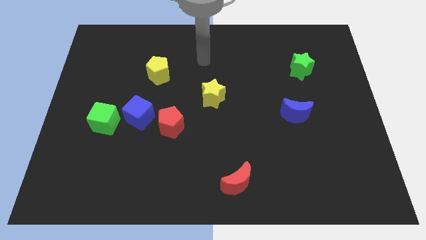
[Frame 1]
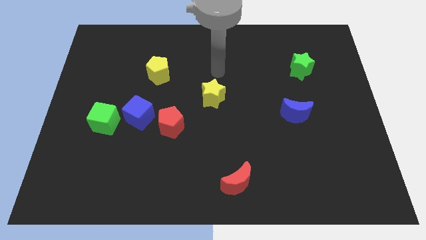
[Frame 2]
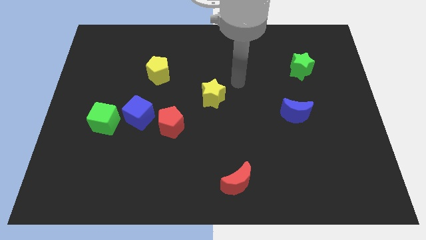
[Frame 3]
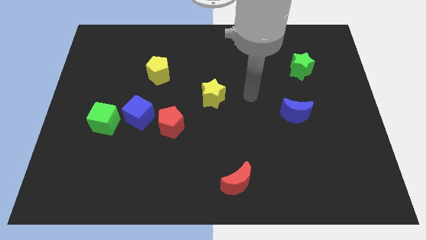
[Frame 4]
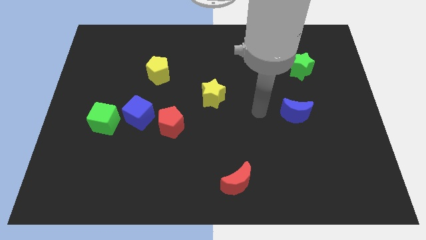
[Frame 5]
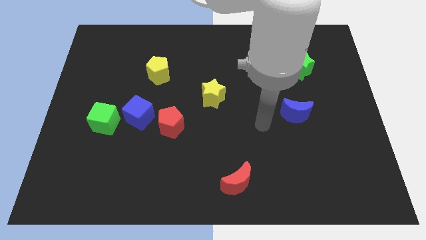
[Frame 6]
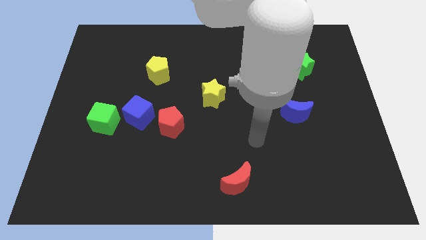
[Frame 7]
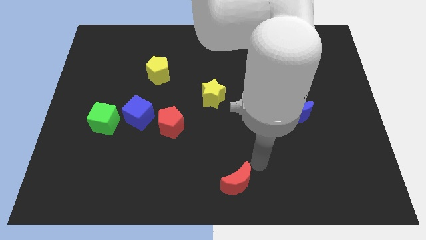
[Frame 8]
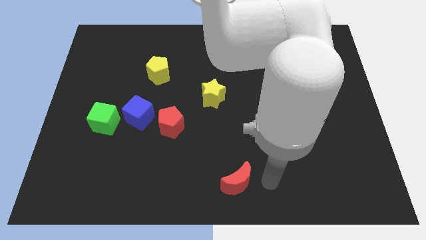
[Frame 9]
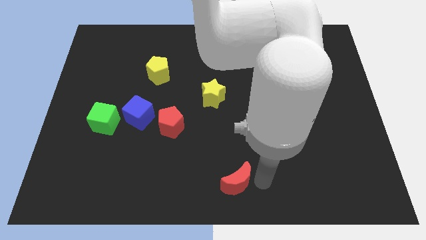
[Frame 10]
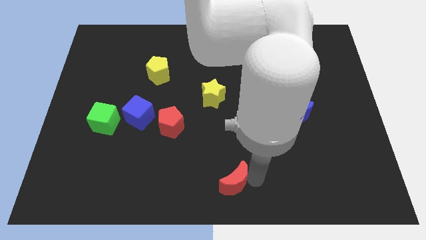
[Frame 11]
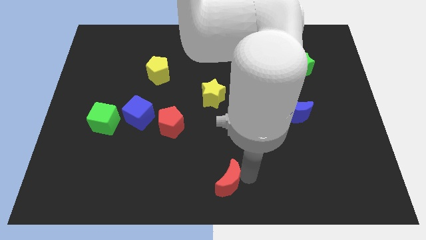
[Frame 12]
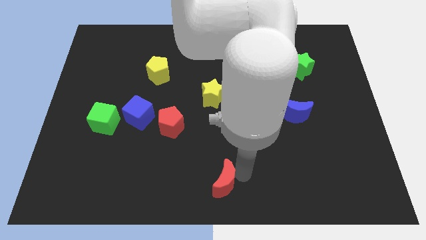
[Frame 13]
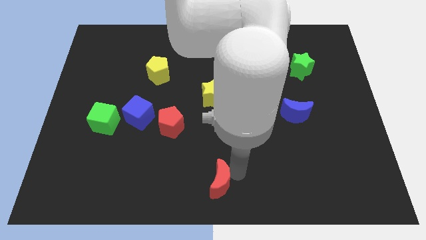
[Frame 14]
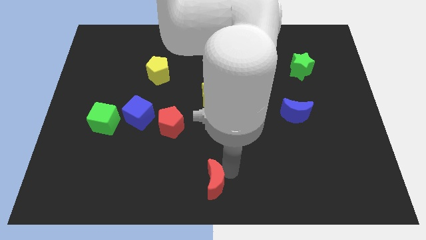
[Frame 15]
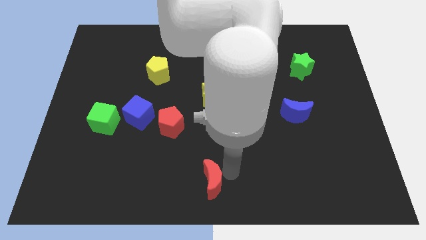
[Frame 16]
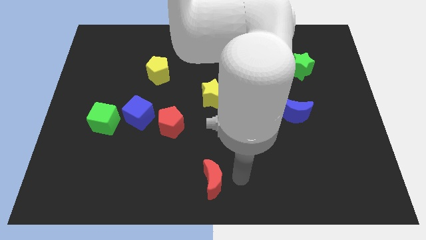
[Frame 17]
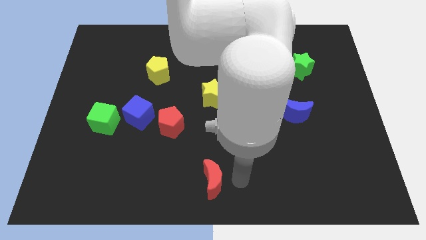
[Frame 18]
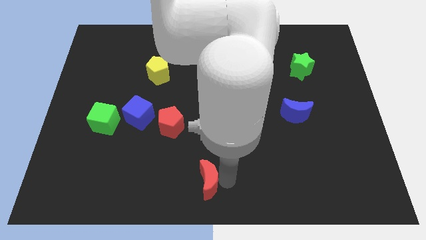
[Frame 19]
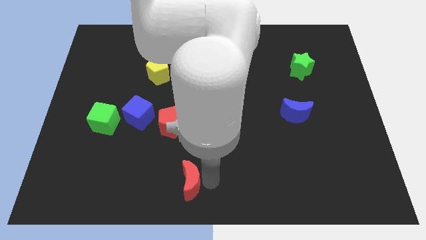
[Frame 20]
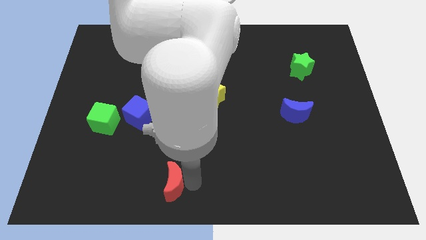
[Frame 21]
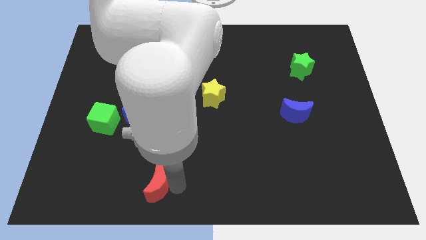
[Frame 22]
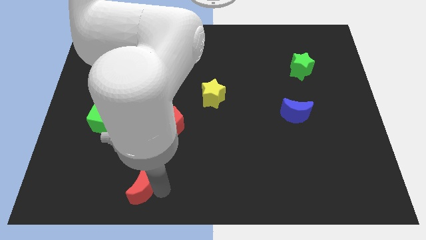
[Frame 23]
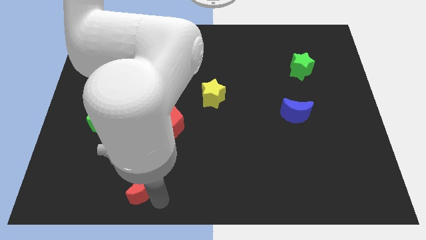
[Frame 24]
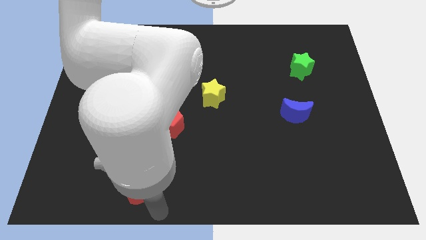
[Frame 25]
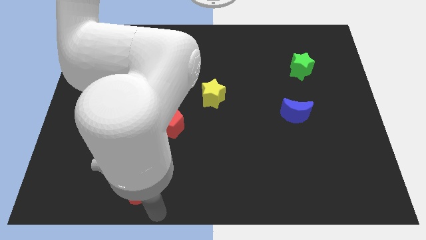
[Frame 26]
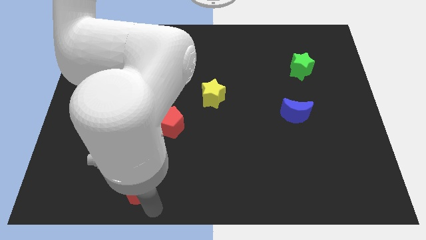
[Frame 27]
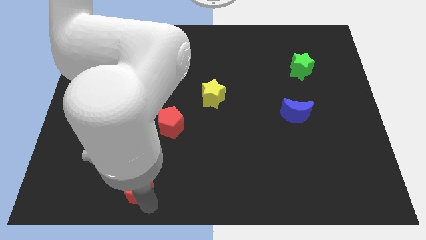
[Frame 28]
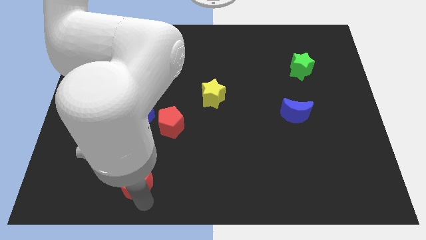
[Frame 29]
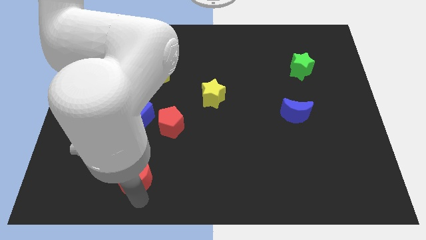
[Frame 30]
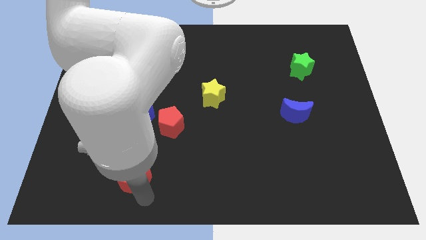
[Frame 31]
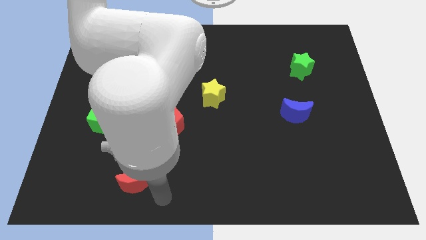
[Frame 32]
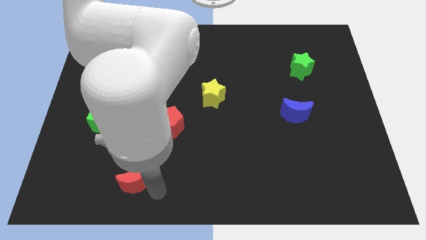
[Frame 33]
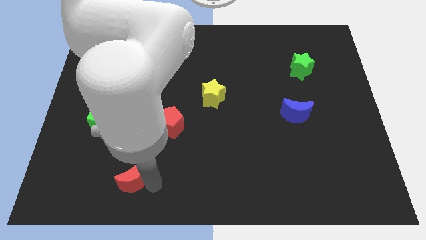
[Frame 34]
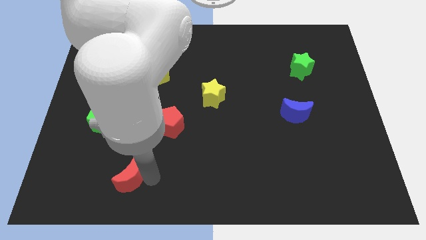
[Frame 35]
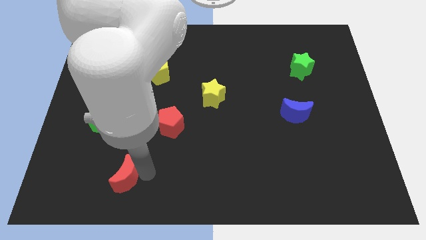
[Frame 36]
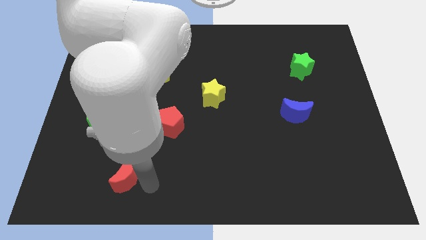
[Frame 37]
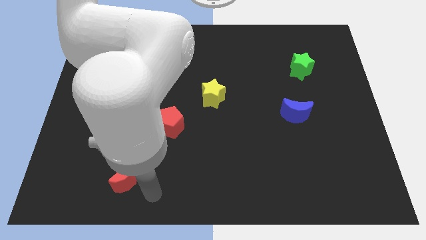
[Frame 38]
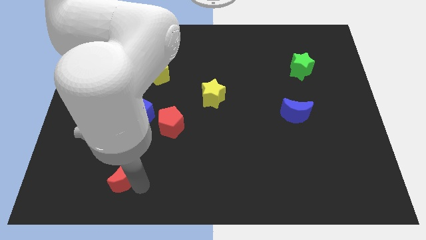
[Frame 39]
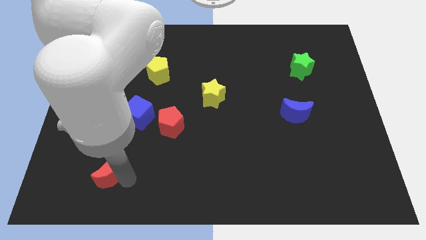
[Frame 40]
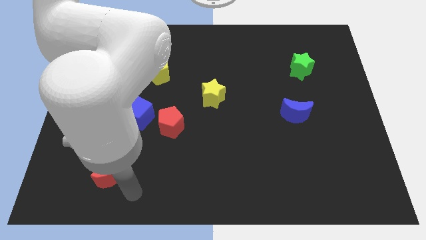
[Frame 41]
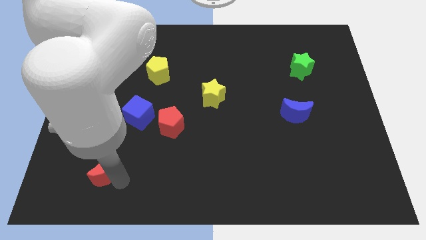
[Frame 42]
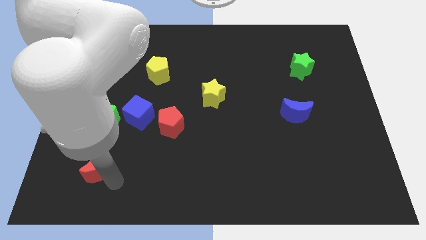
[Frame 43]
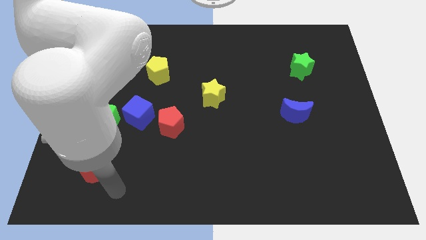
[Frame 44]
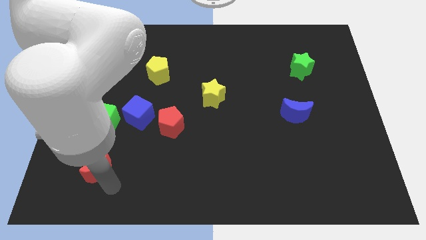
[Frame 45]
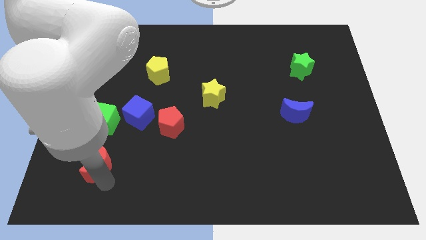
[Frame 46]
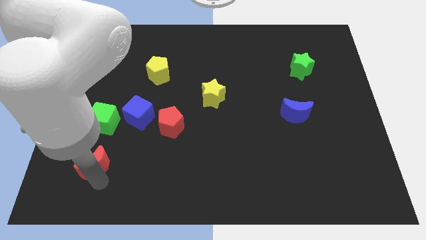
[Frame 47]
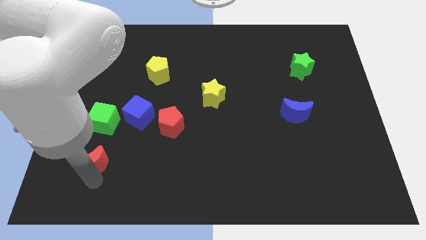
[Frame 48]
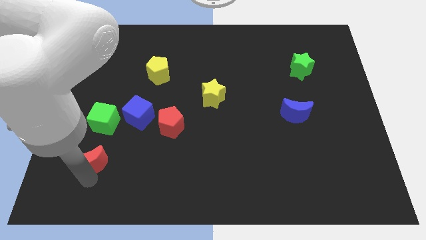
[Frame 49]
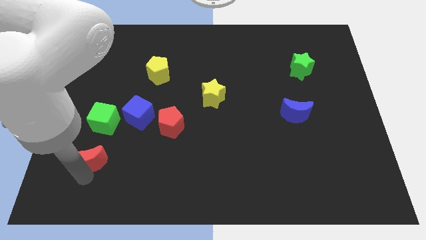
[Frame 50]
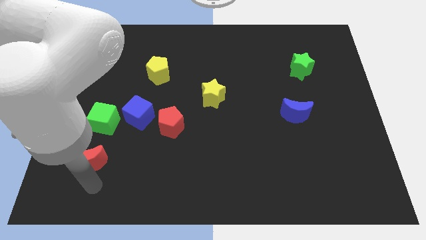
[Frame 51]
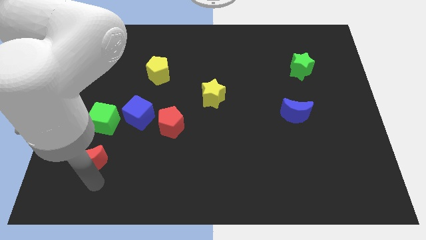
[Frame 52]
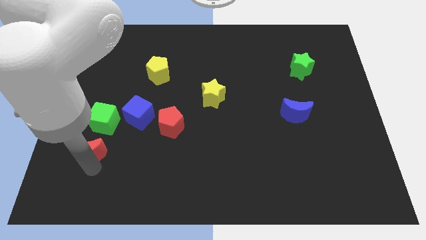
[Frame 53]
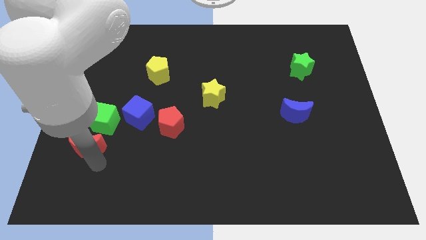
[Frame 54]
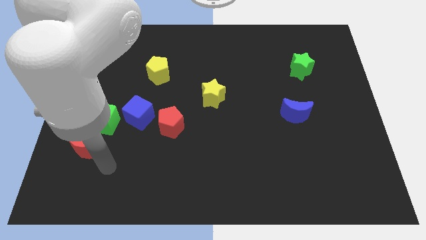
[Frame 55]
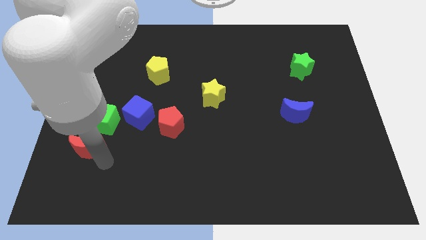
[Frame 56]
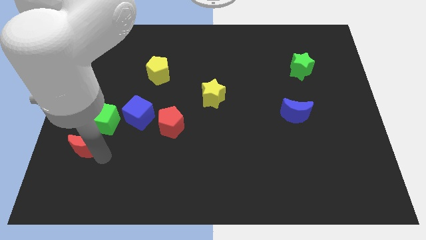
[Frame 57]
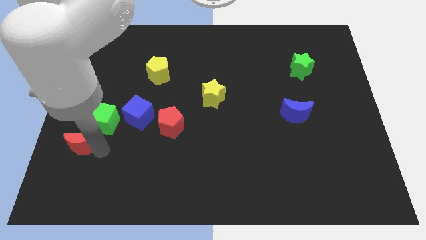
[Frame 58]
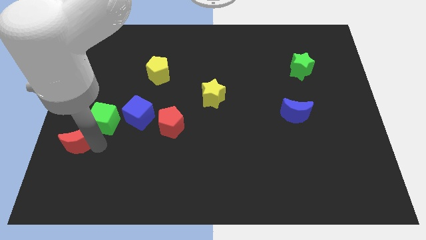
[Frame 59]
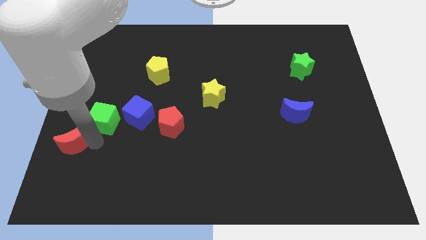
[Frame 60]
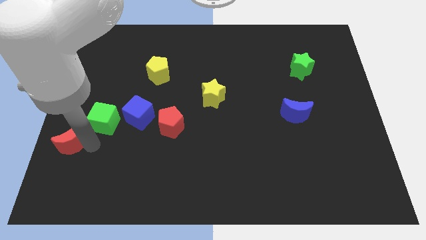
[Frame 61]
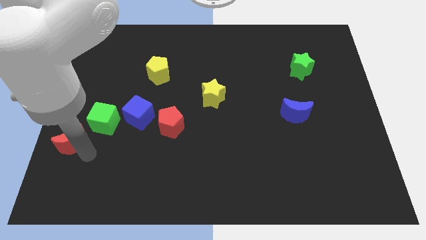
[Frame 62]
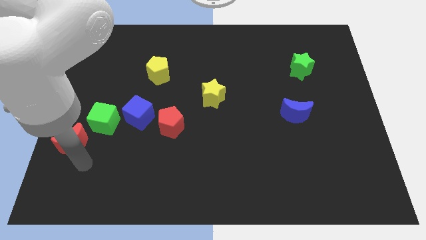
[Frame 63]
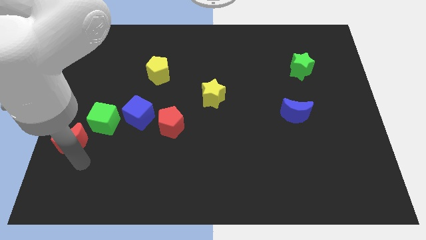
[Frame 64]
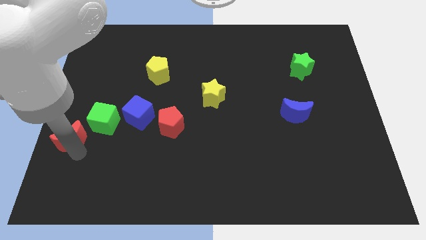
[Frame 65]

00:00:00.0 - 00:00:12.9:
put the red moon to the center left

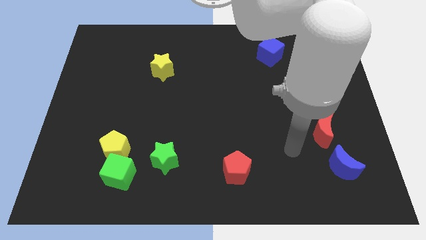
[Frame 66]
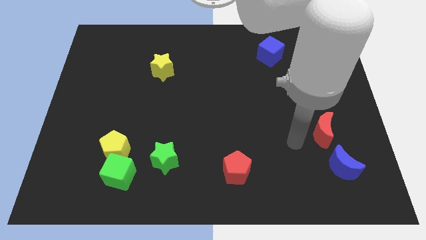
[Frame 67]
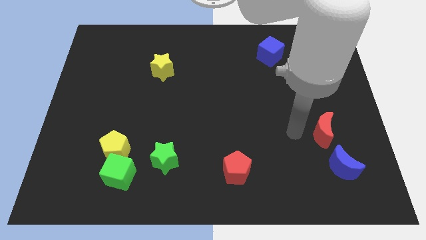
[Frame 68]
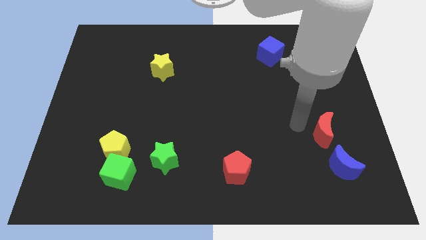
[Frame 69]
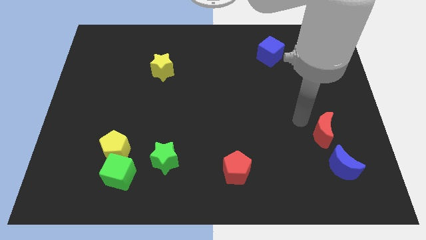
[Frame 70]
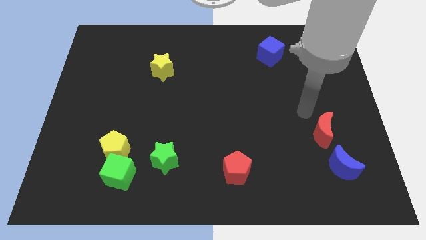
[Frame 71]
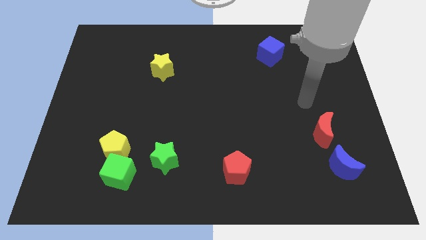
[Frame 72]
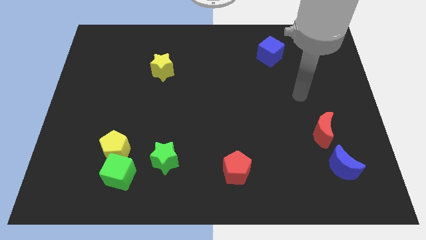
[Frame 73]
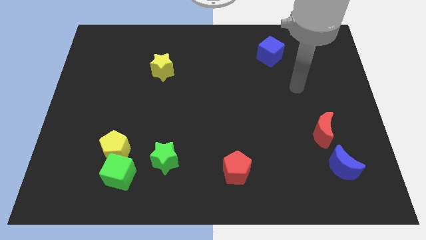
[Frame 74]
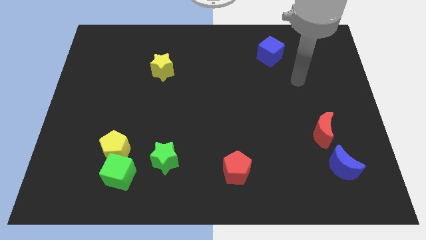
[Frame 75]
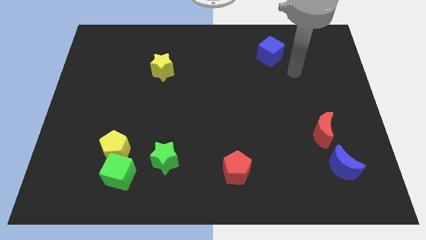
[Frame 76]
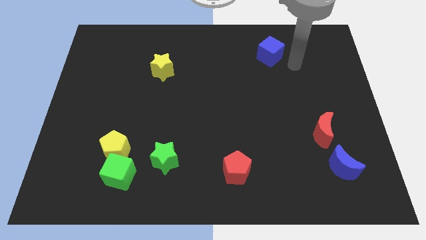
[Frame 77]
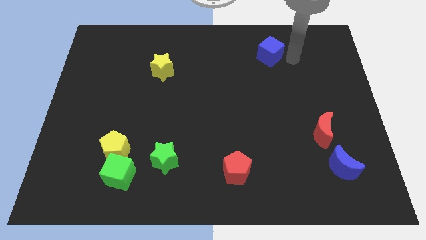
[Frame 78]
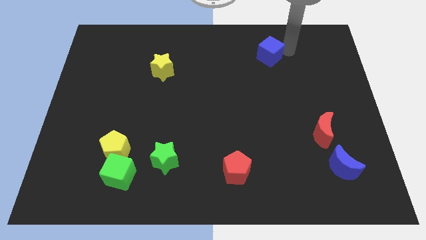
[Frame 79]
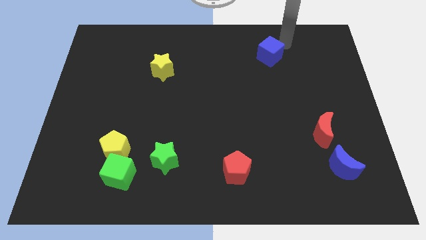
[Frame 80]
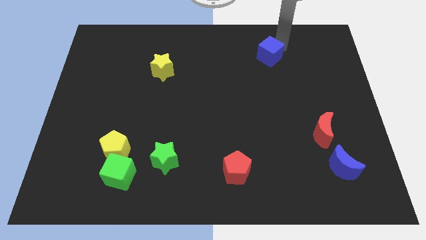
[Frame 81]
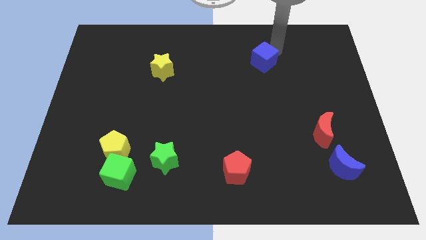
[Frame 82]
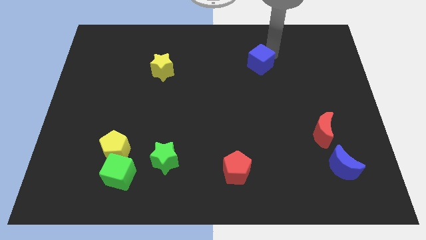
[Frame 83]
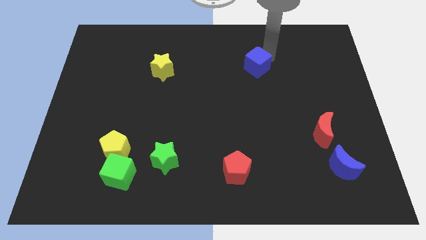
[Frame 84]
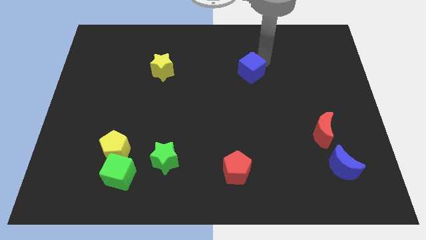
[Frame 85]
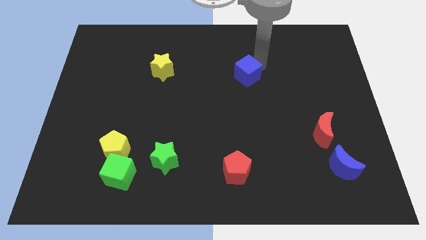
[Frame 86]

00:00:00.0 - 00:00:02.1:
put the blue cube to the middle
